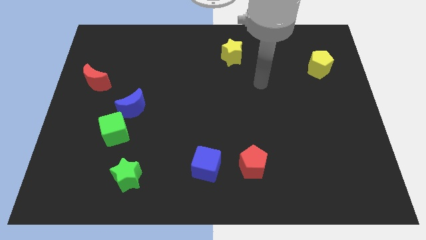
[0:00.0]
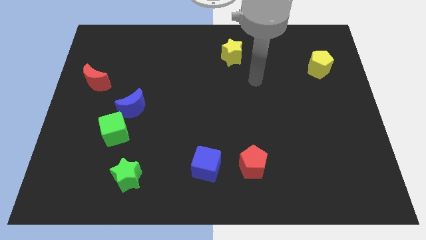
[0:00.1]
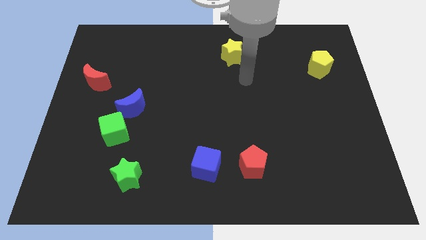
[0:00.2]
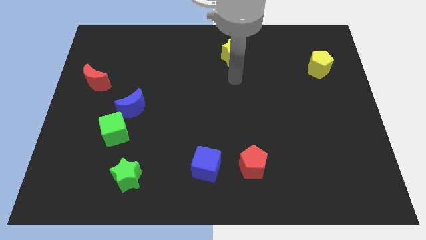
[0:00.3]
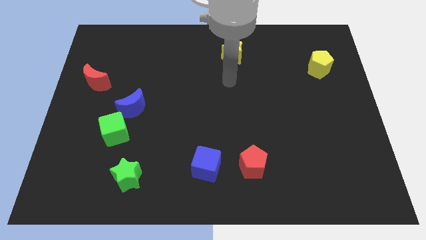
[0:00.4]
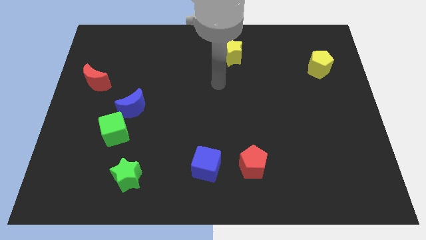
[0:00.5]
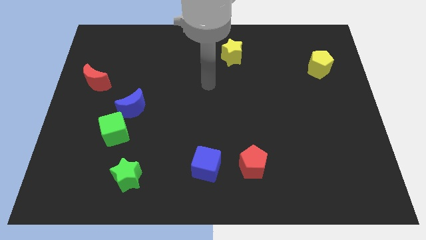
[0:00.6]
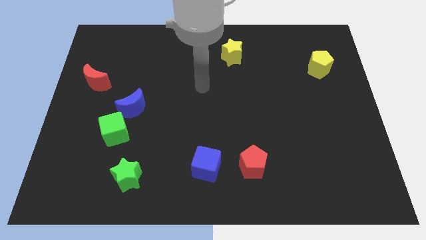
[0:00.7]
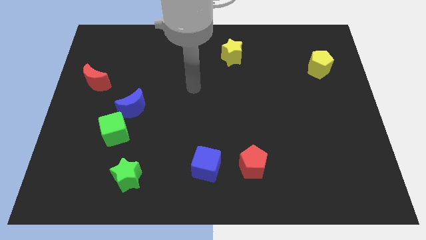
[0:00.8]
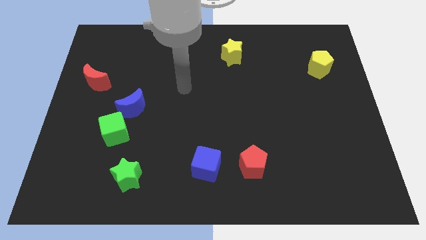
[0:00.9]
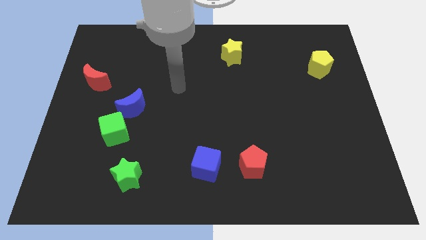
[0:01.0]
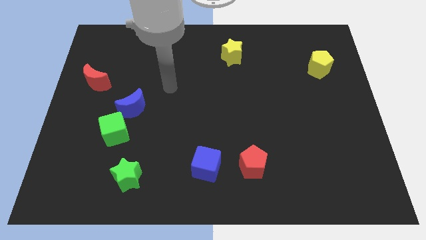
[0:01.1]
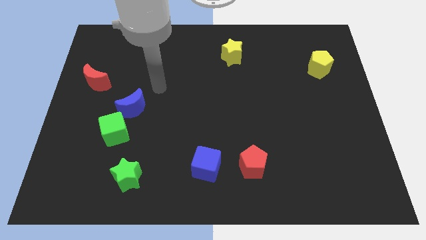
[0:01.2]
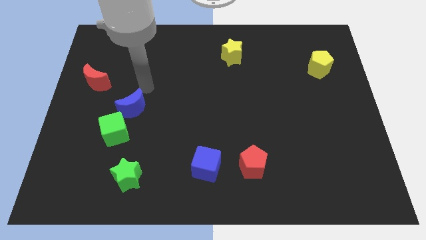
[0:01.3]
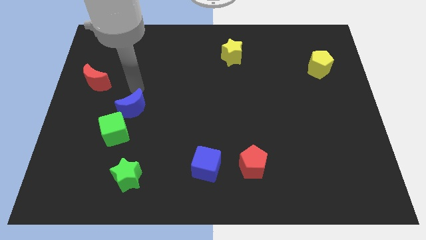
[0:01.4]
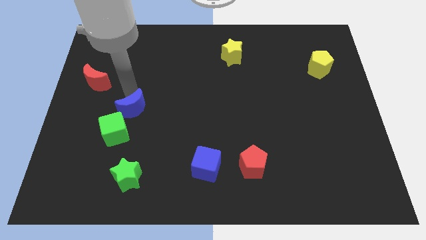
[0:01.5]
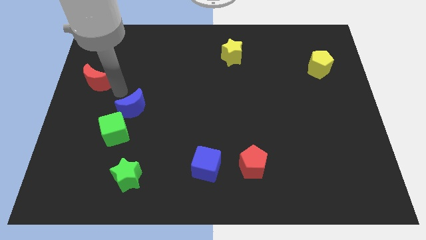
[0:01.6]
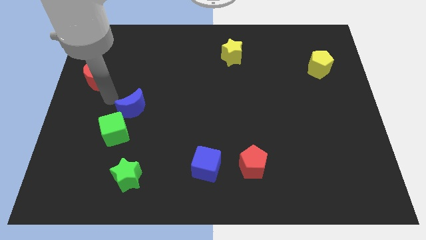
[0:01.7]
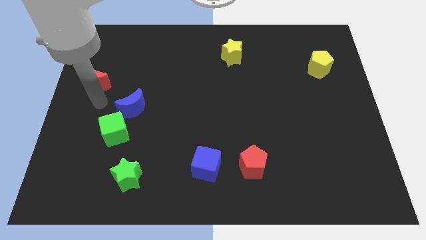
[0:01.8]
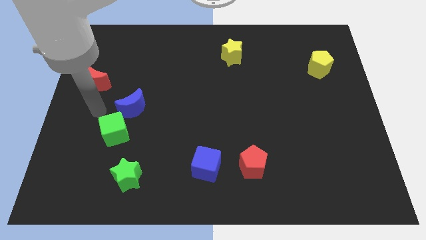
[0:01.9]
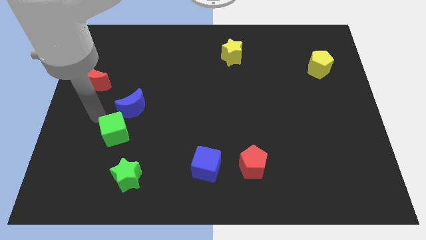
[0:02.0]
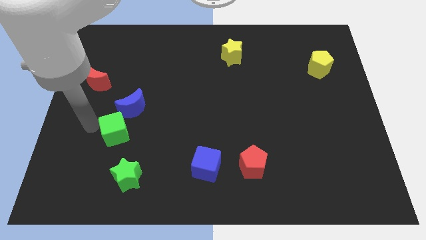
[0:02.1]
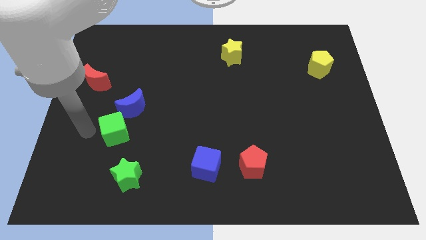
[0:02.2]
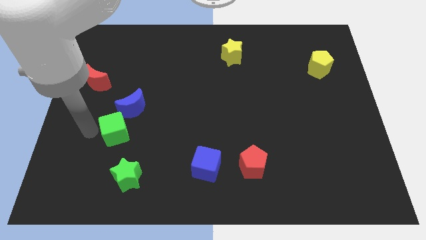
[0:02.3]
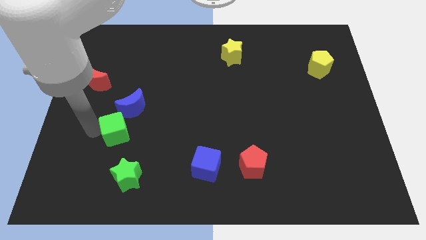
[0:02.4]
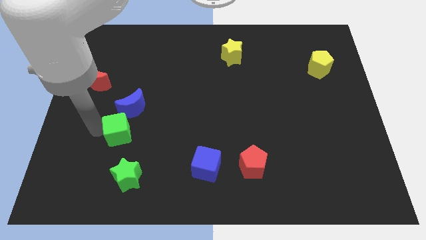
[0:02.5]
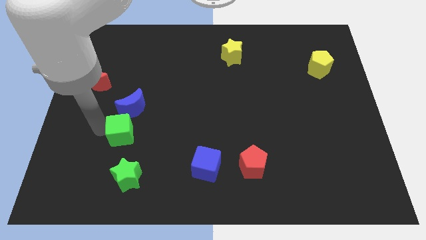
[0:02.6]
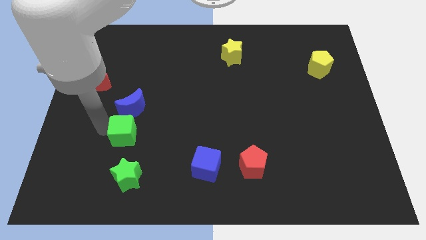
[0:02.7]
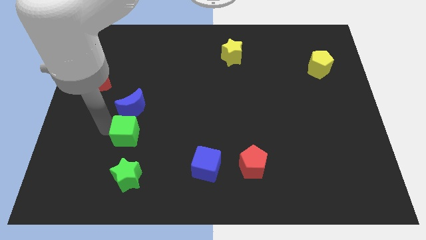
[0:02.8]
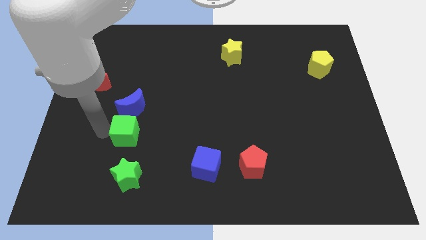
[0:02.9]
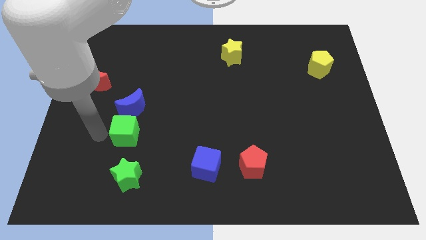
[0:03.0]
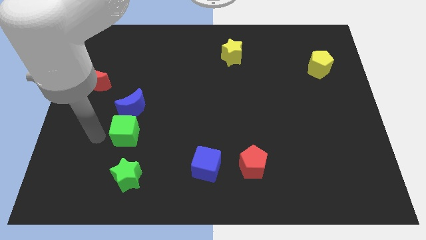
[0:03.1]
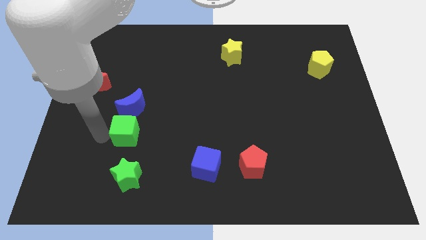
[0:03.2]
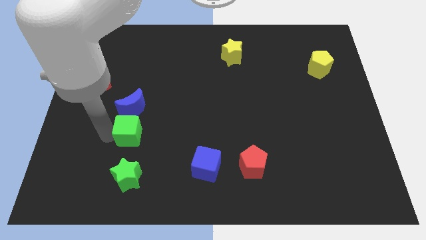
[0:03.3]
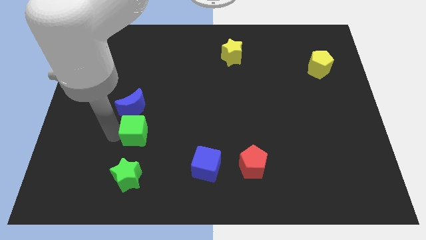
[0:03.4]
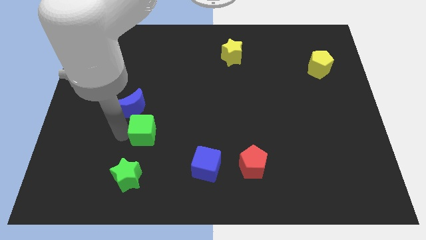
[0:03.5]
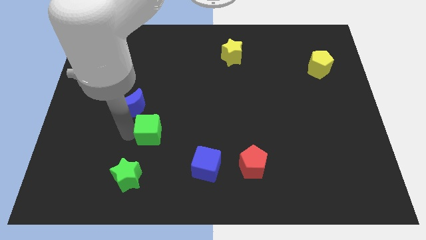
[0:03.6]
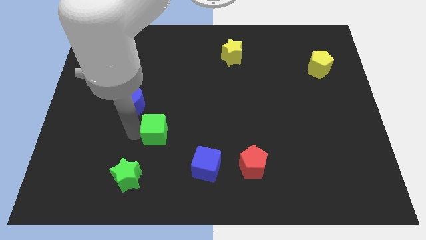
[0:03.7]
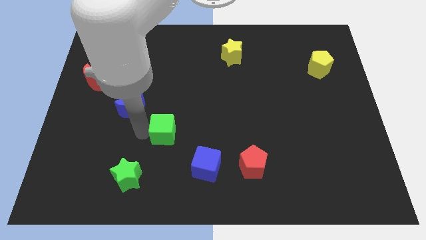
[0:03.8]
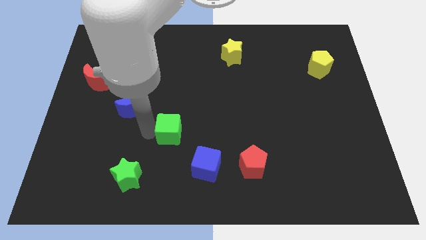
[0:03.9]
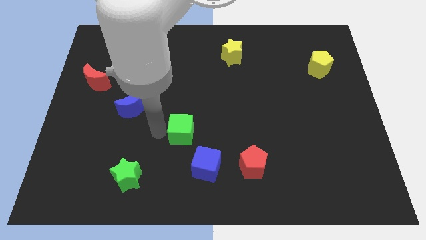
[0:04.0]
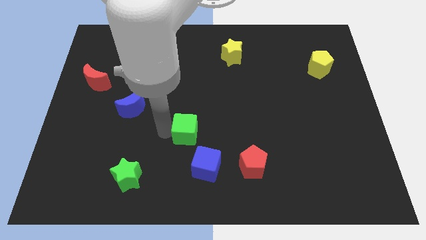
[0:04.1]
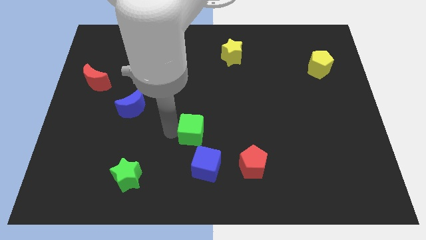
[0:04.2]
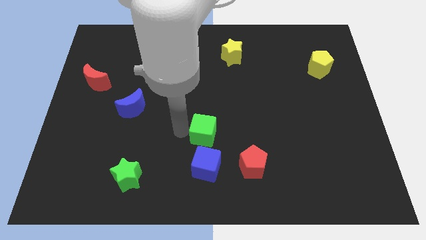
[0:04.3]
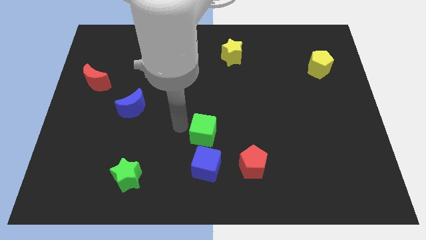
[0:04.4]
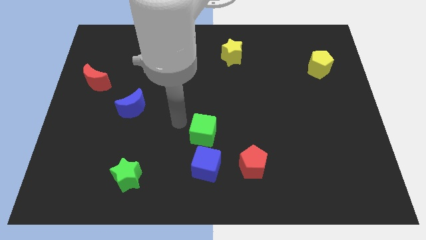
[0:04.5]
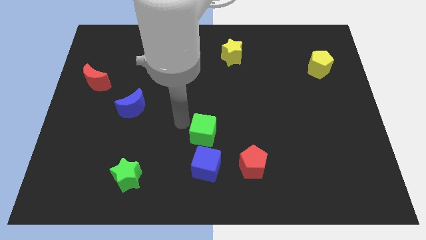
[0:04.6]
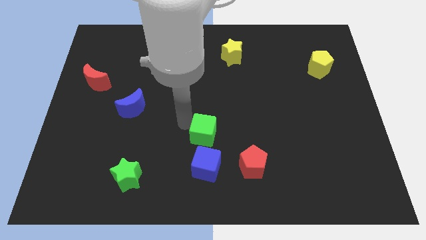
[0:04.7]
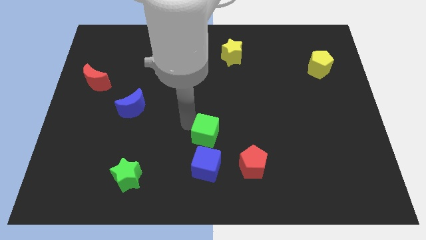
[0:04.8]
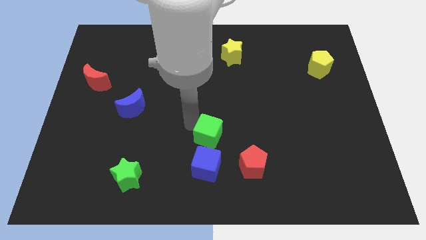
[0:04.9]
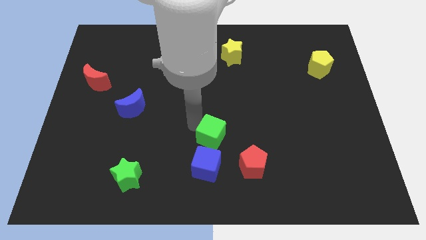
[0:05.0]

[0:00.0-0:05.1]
move the green cube diagonally up and to the right of the blue cube

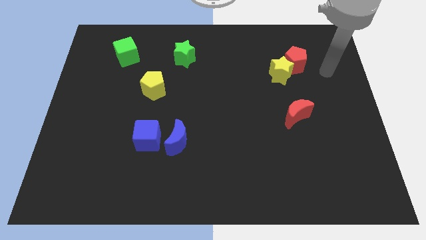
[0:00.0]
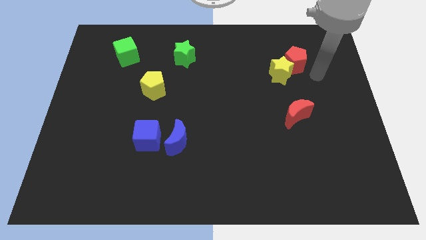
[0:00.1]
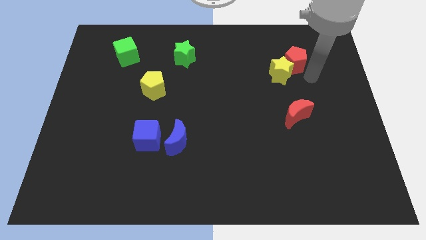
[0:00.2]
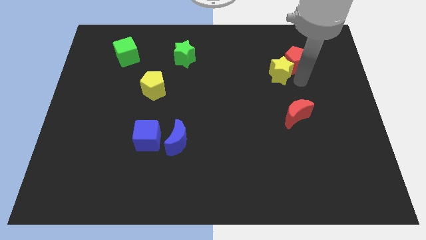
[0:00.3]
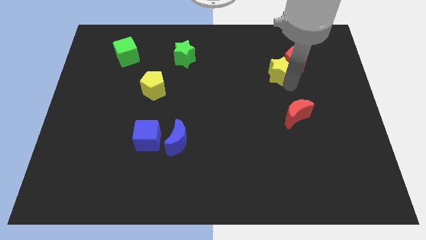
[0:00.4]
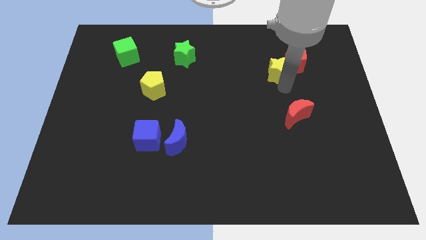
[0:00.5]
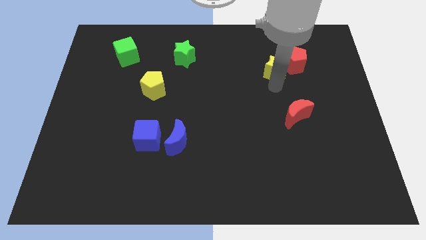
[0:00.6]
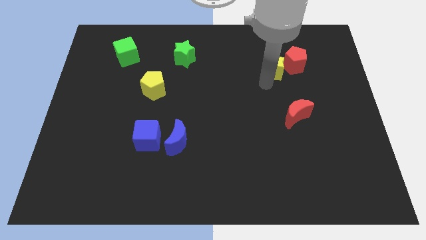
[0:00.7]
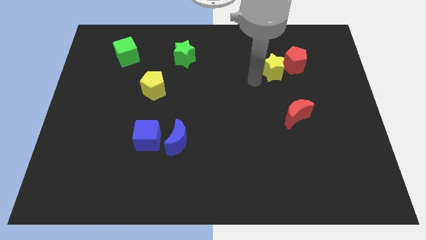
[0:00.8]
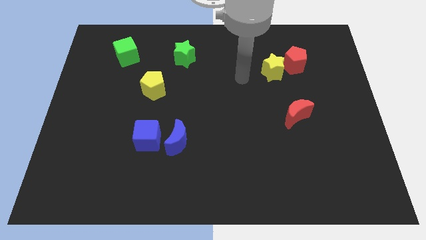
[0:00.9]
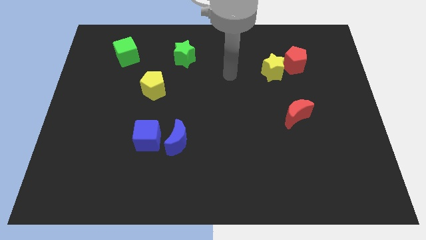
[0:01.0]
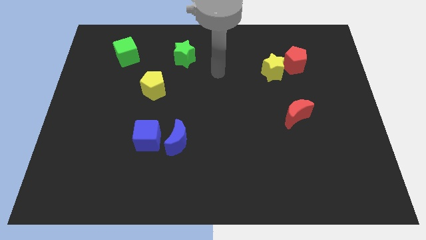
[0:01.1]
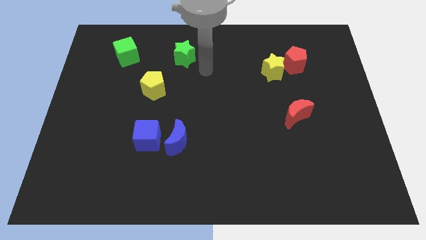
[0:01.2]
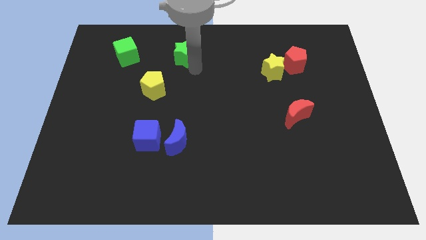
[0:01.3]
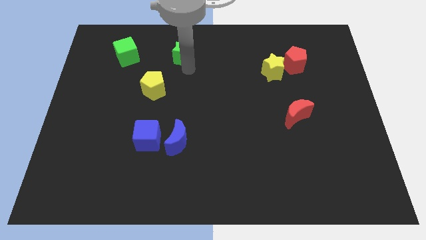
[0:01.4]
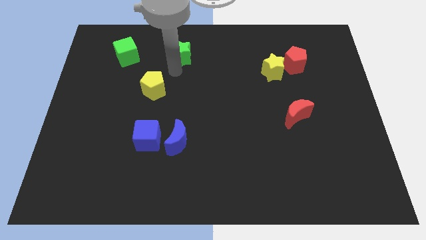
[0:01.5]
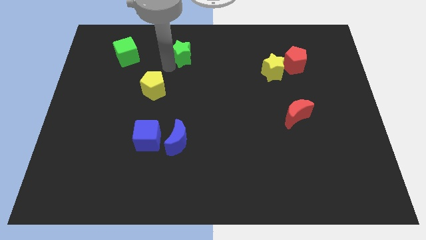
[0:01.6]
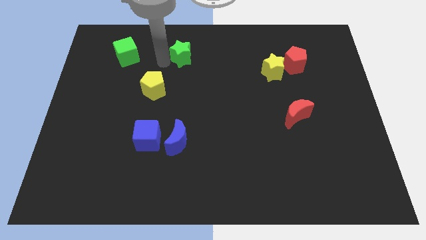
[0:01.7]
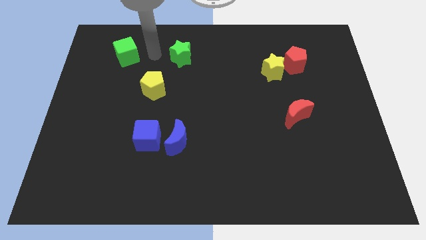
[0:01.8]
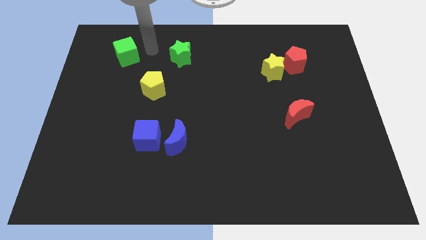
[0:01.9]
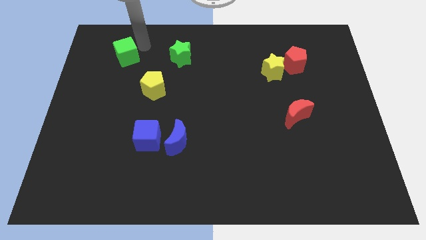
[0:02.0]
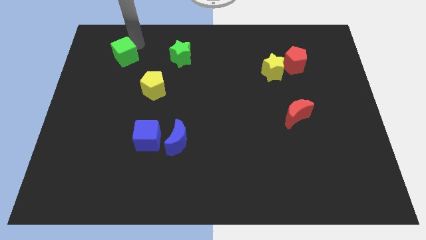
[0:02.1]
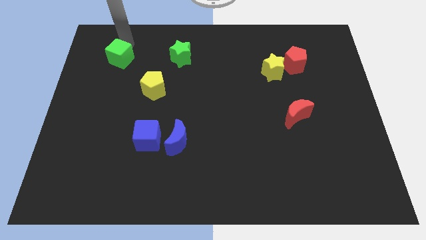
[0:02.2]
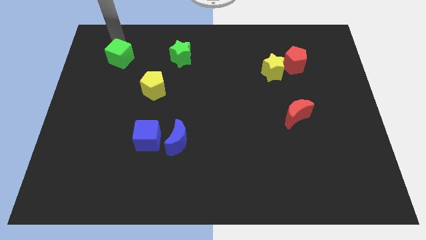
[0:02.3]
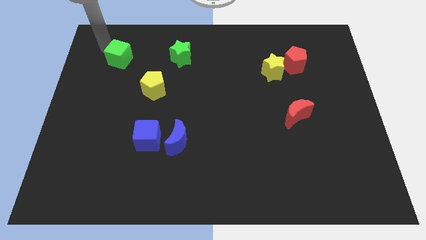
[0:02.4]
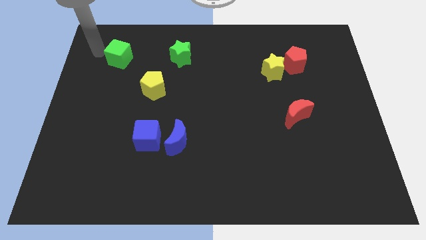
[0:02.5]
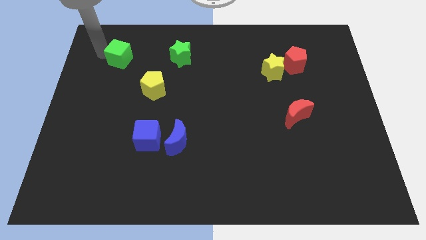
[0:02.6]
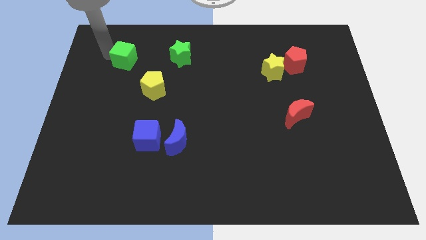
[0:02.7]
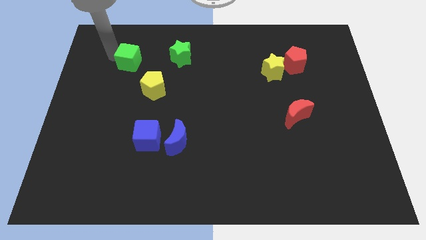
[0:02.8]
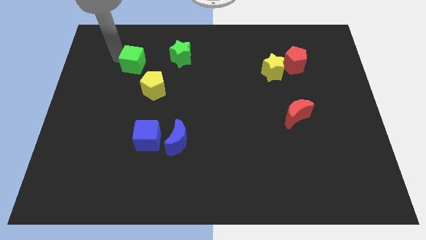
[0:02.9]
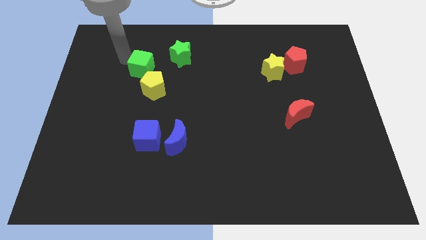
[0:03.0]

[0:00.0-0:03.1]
slide the green cube to the bottom left of the green star
